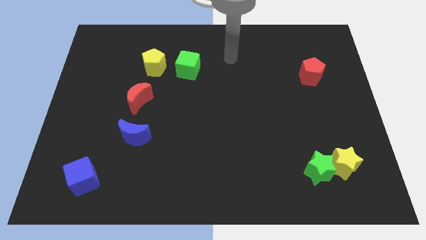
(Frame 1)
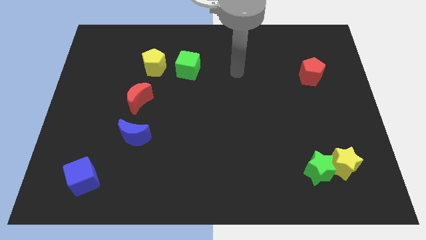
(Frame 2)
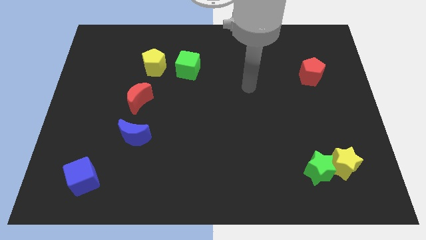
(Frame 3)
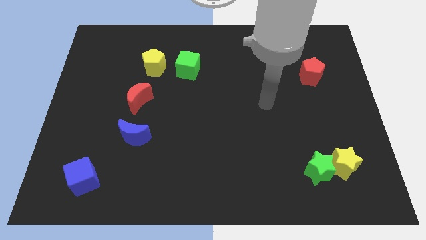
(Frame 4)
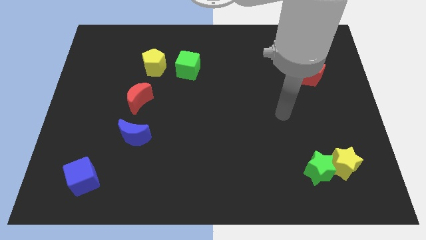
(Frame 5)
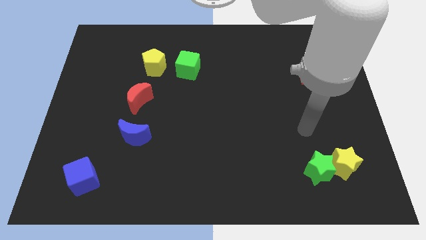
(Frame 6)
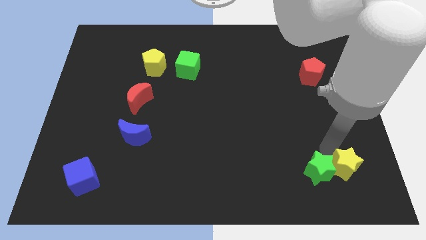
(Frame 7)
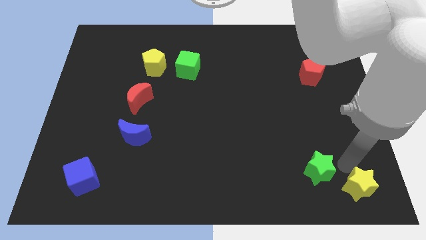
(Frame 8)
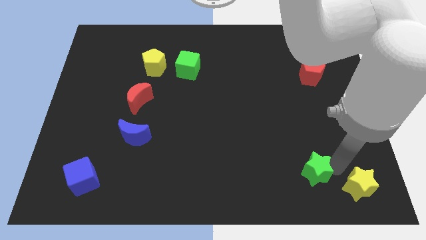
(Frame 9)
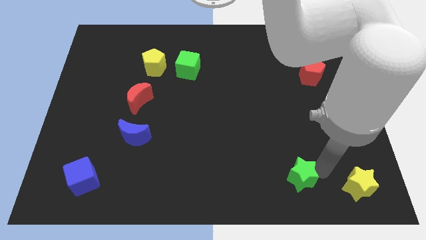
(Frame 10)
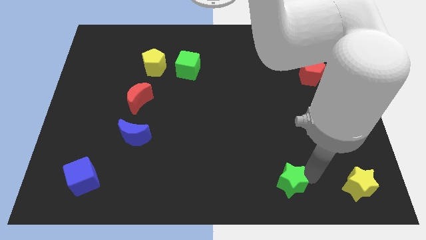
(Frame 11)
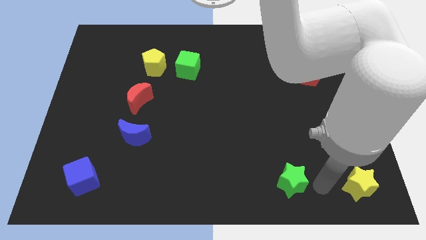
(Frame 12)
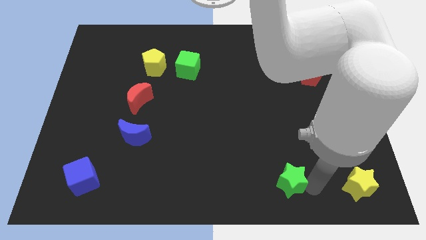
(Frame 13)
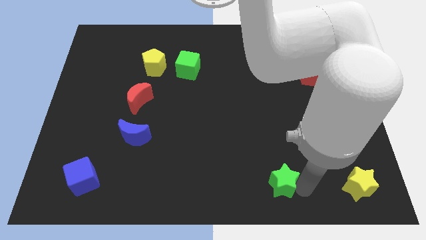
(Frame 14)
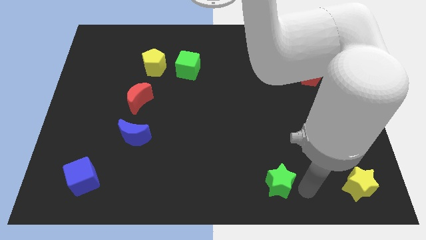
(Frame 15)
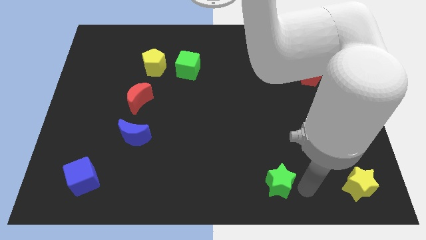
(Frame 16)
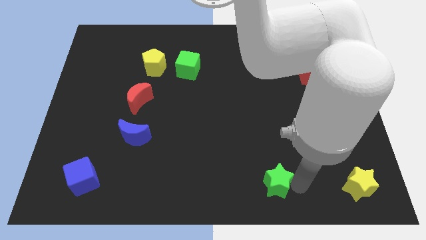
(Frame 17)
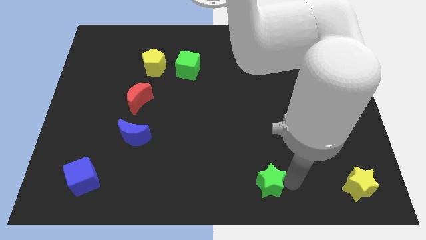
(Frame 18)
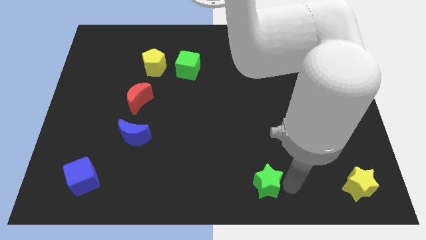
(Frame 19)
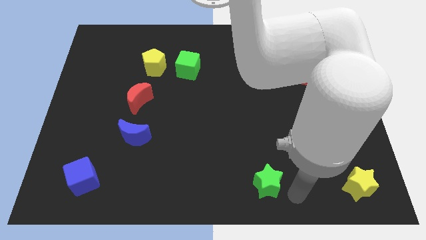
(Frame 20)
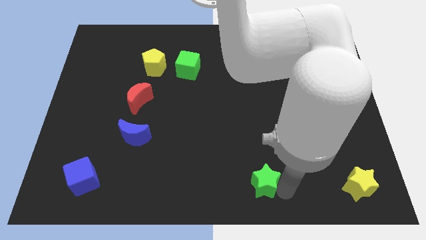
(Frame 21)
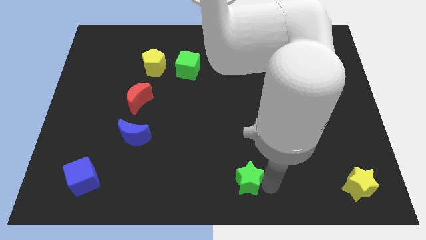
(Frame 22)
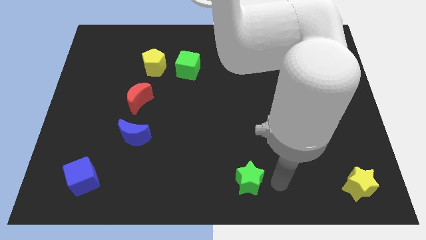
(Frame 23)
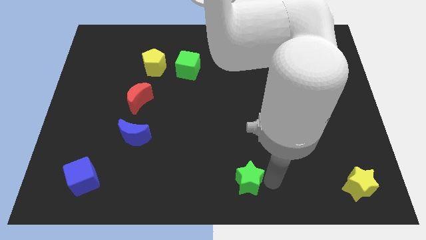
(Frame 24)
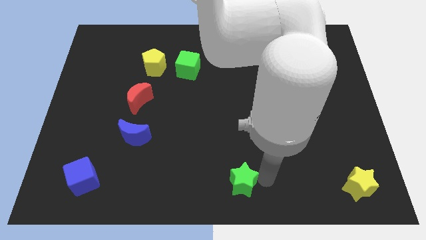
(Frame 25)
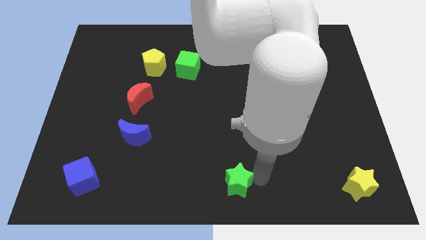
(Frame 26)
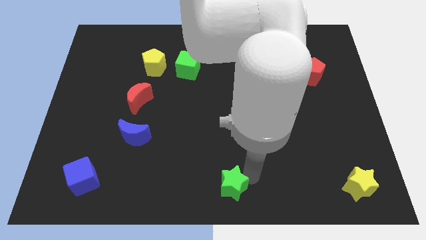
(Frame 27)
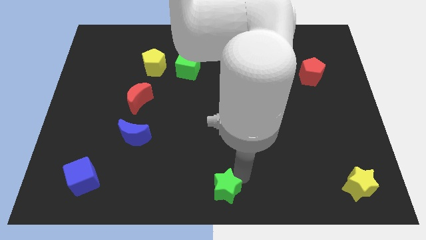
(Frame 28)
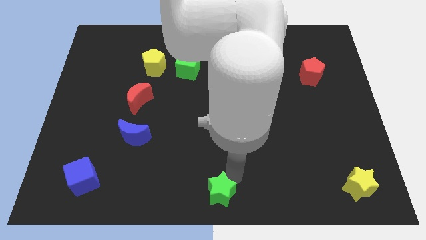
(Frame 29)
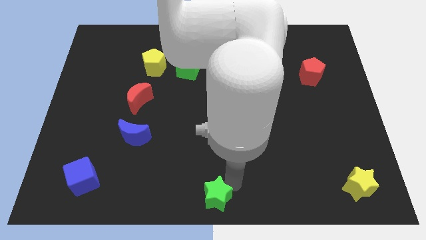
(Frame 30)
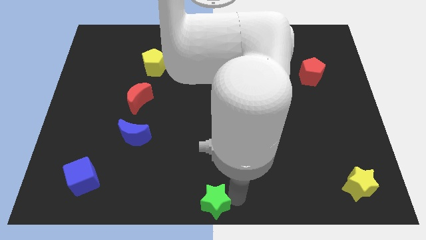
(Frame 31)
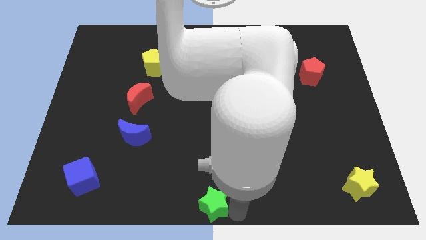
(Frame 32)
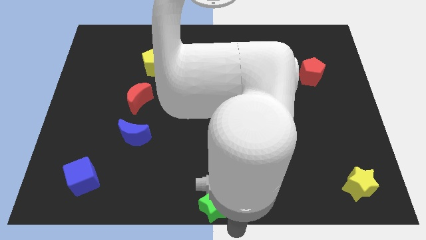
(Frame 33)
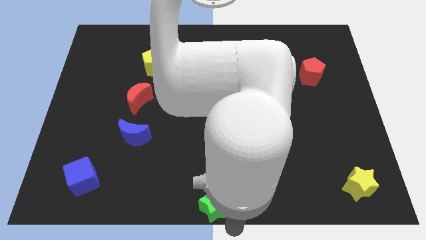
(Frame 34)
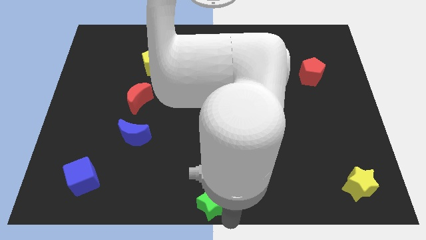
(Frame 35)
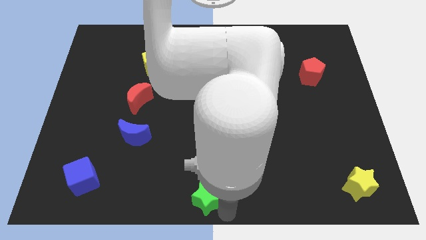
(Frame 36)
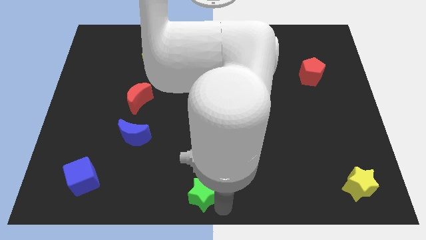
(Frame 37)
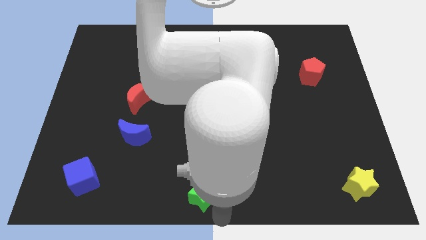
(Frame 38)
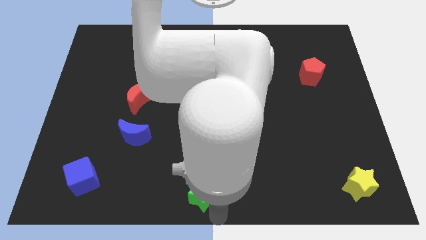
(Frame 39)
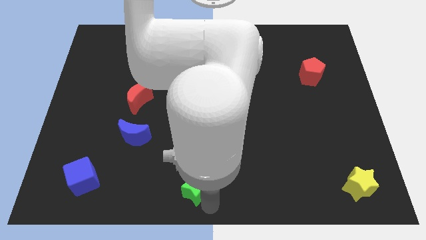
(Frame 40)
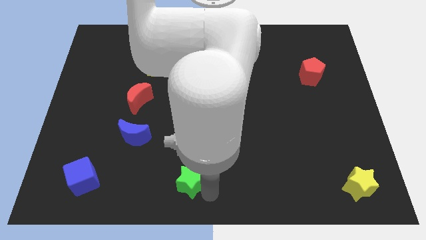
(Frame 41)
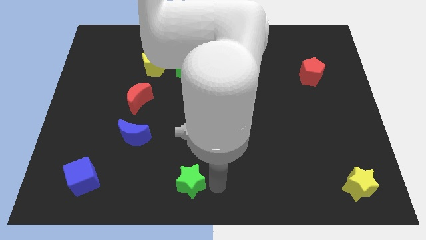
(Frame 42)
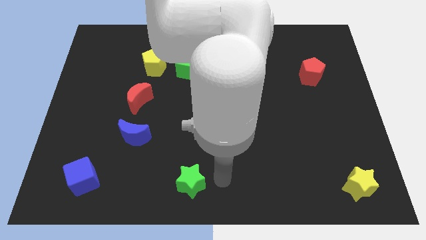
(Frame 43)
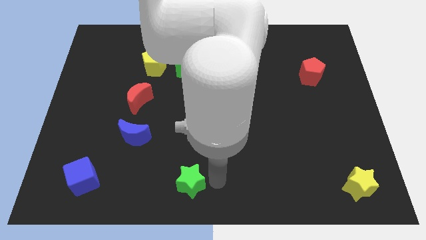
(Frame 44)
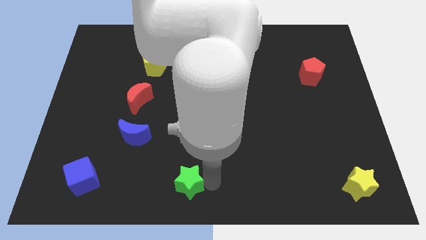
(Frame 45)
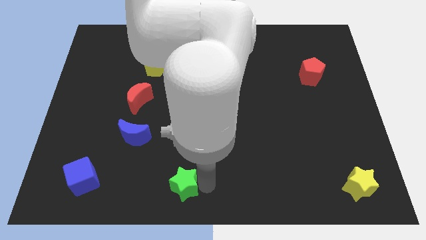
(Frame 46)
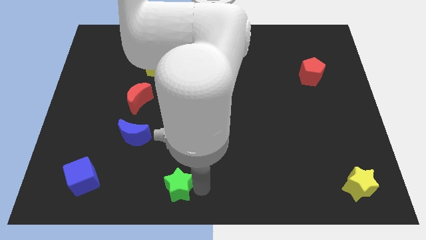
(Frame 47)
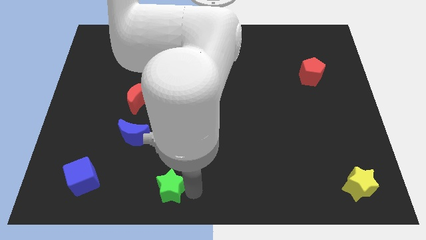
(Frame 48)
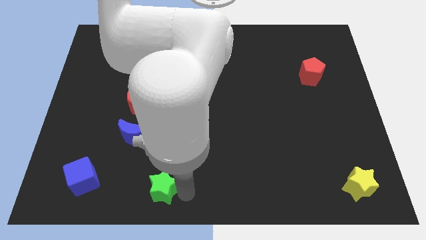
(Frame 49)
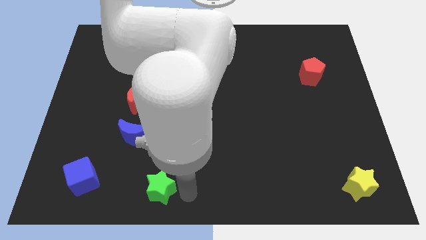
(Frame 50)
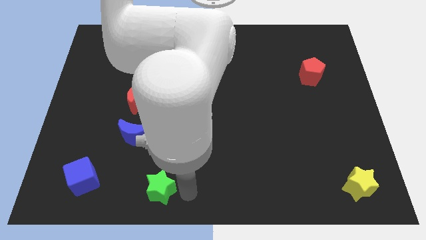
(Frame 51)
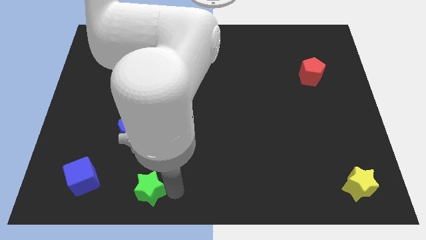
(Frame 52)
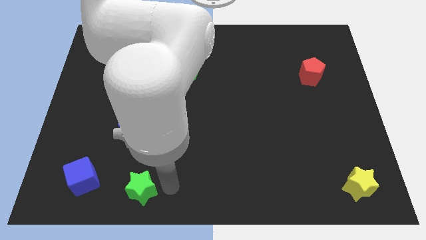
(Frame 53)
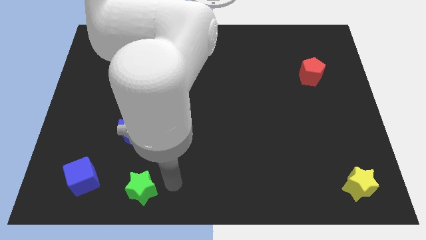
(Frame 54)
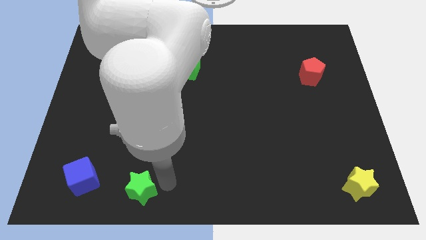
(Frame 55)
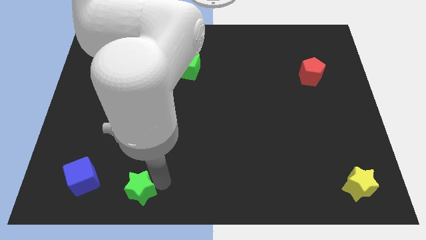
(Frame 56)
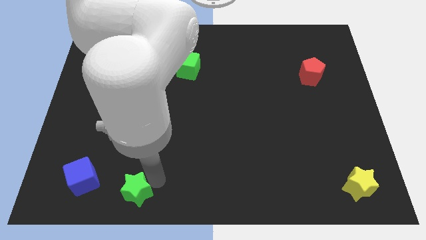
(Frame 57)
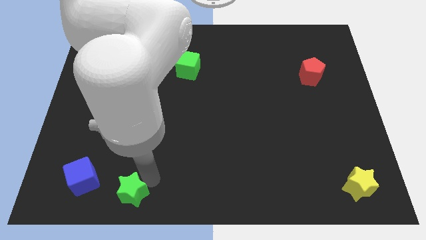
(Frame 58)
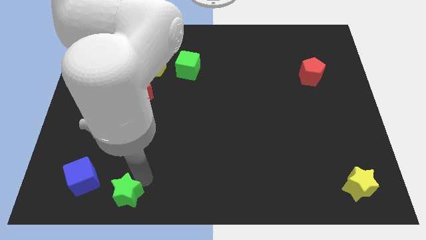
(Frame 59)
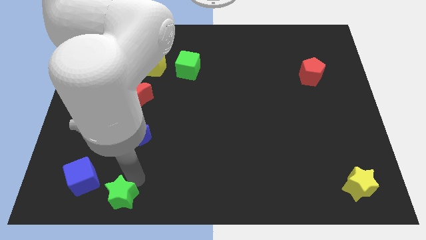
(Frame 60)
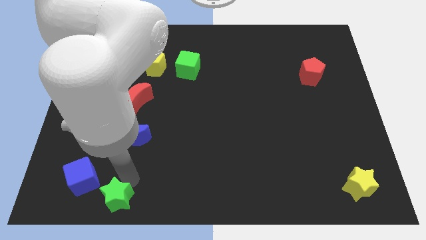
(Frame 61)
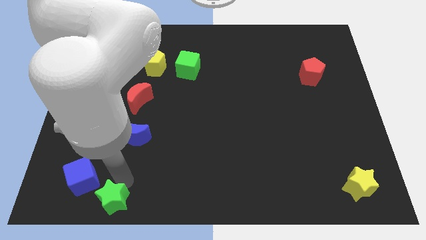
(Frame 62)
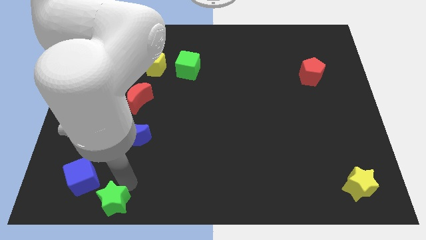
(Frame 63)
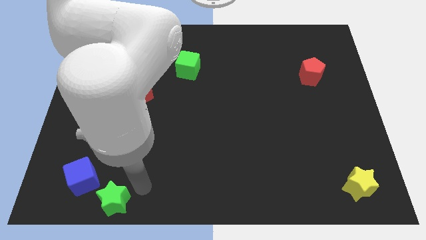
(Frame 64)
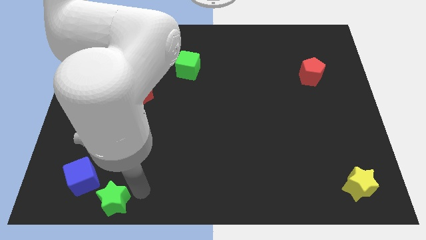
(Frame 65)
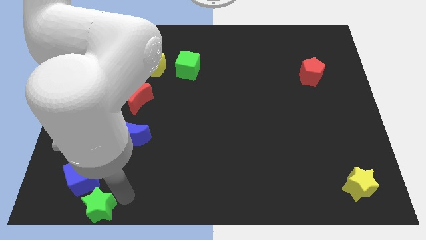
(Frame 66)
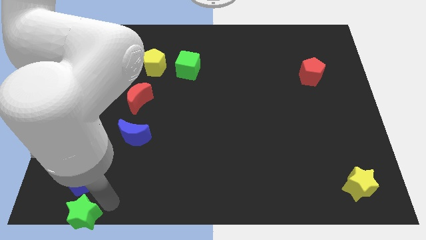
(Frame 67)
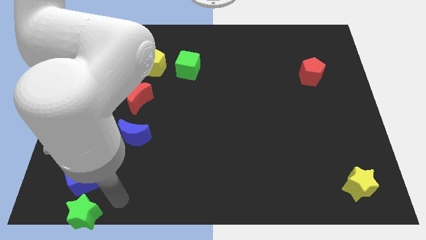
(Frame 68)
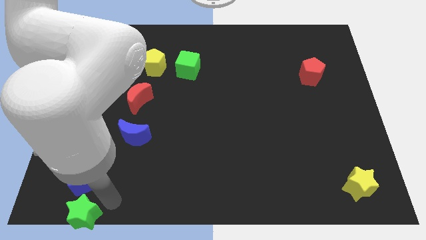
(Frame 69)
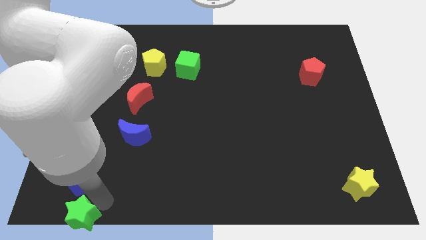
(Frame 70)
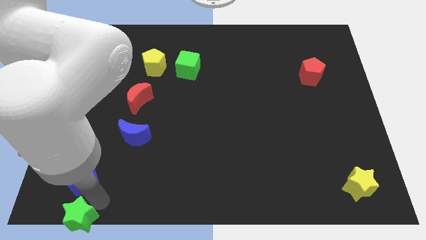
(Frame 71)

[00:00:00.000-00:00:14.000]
slide the green star to the bottom left corner
